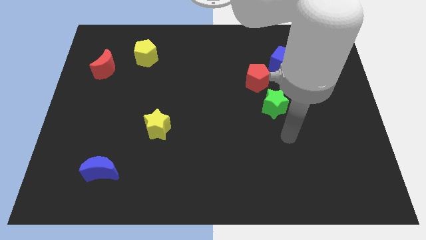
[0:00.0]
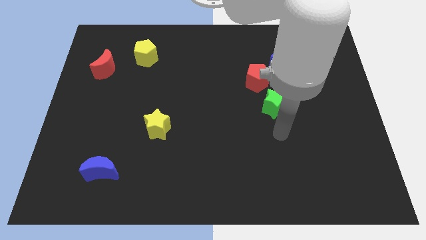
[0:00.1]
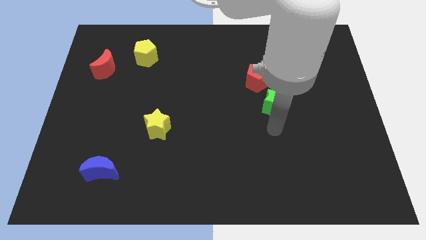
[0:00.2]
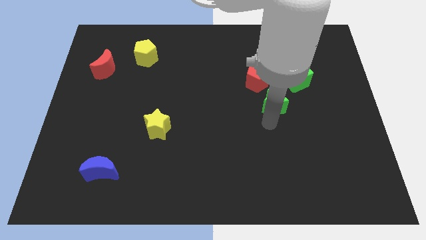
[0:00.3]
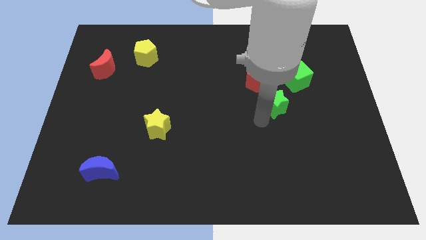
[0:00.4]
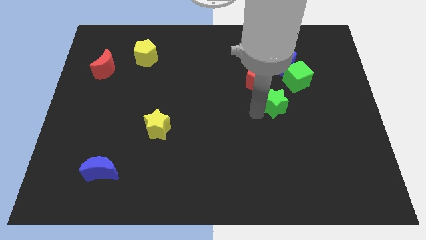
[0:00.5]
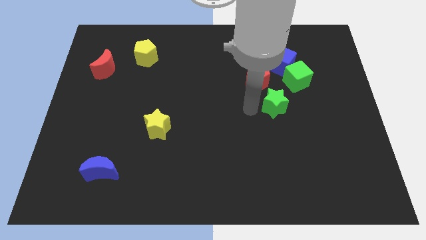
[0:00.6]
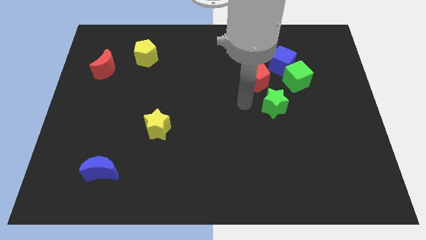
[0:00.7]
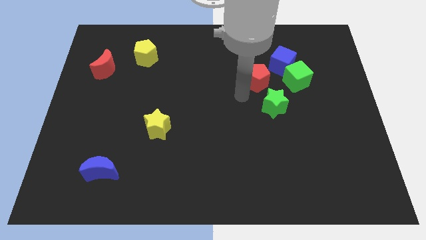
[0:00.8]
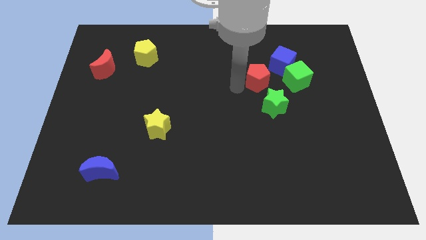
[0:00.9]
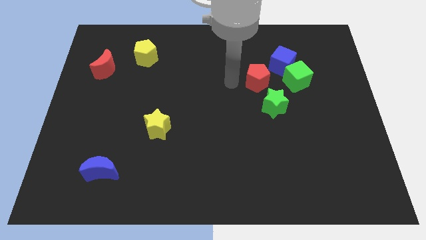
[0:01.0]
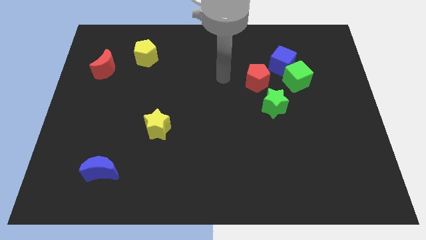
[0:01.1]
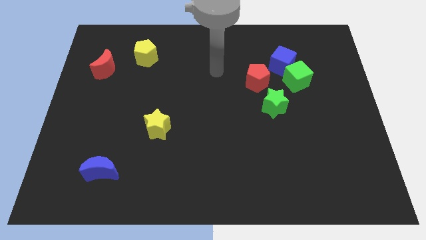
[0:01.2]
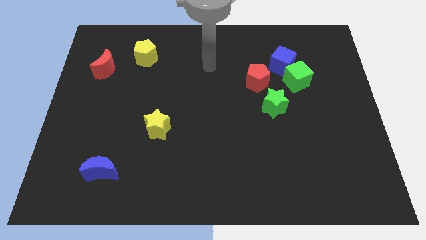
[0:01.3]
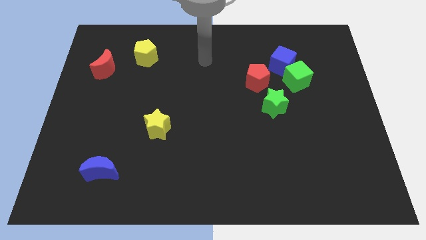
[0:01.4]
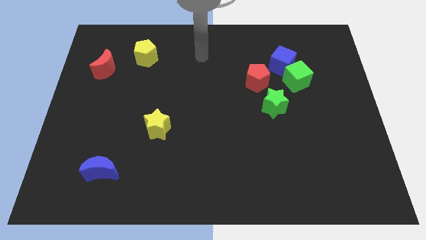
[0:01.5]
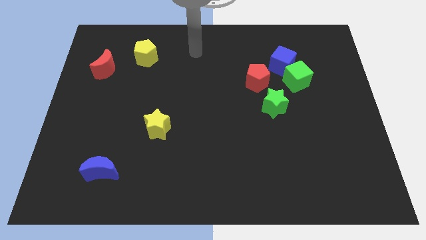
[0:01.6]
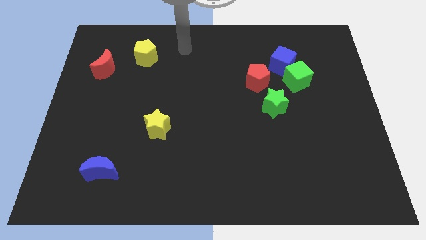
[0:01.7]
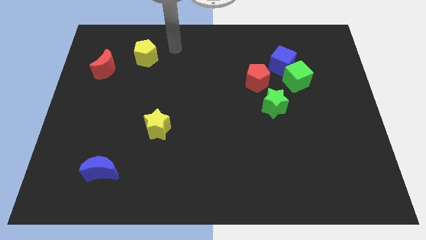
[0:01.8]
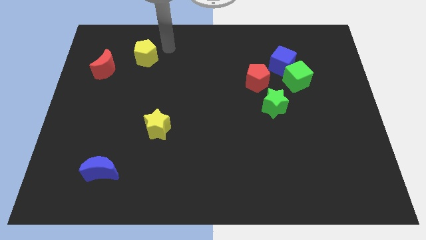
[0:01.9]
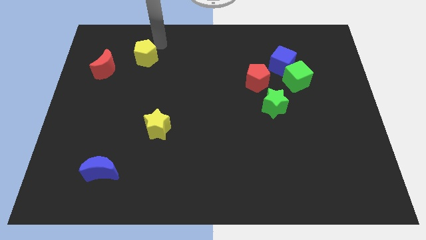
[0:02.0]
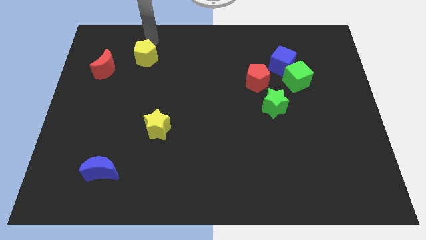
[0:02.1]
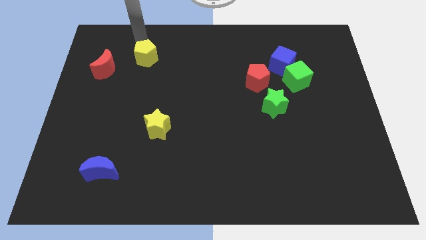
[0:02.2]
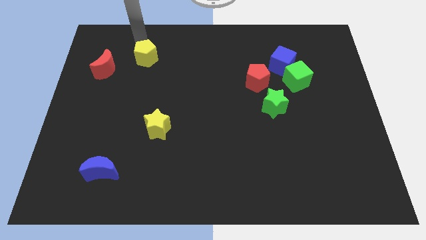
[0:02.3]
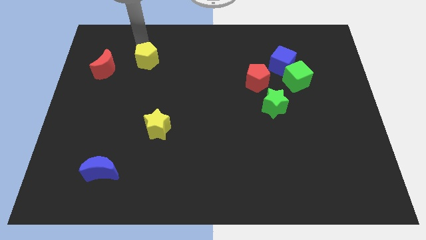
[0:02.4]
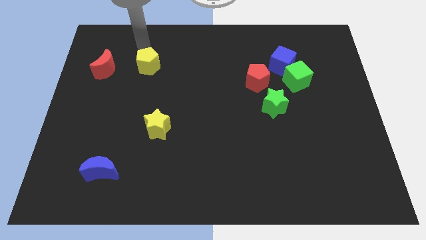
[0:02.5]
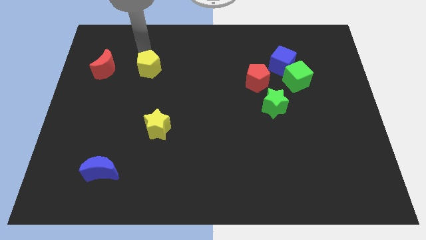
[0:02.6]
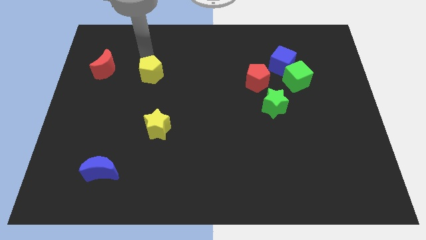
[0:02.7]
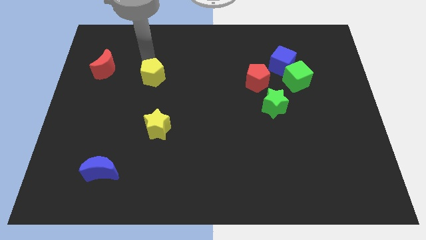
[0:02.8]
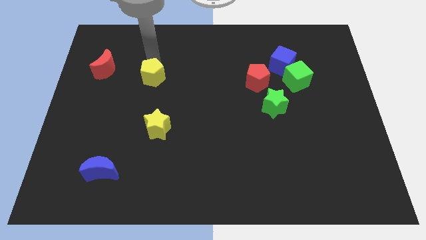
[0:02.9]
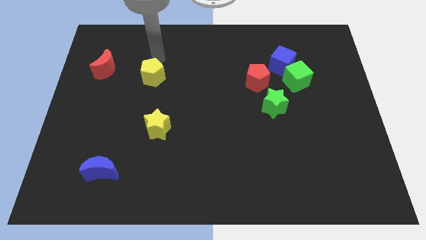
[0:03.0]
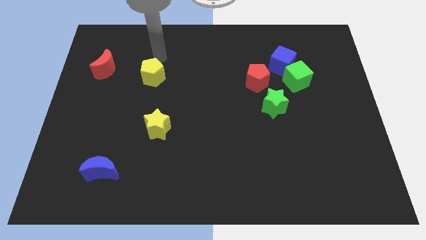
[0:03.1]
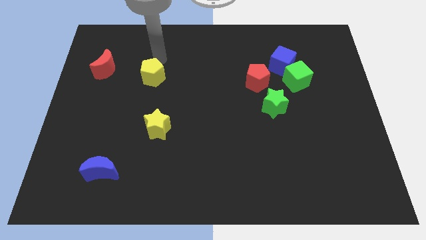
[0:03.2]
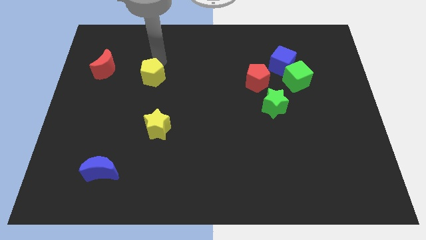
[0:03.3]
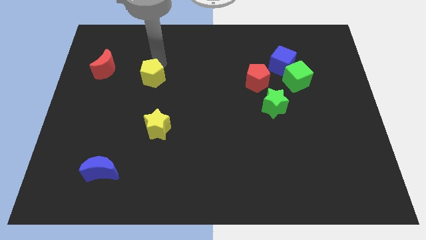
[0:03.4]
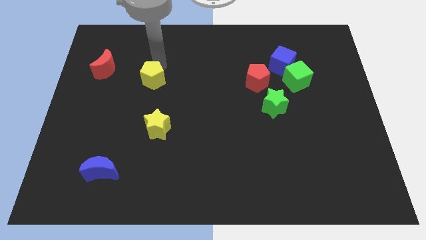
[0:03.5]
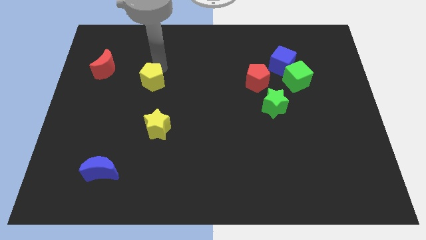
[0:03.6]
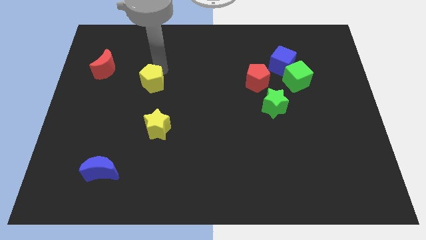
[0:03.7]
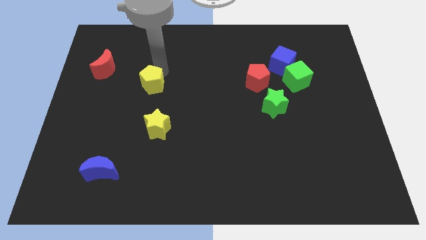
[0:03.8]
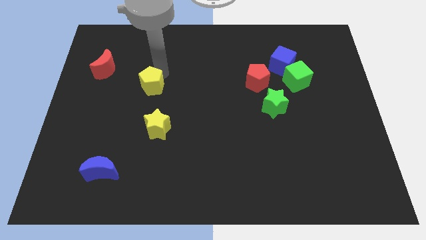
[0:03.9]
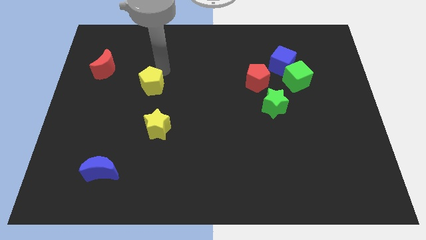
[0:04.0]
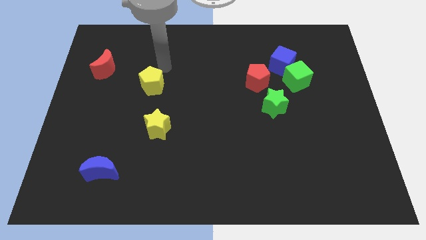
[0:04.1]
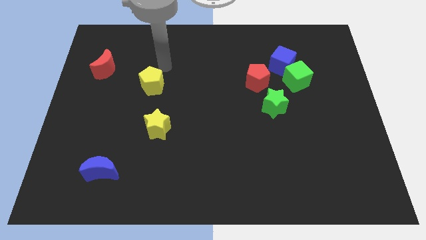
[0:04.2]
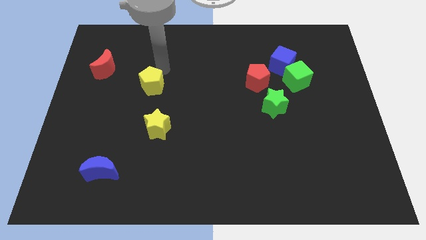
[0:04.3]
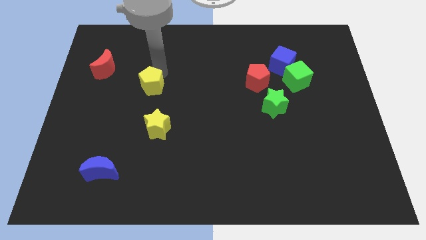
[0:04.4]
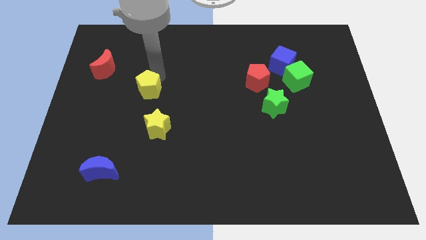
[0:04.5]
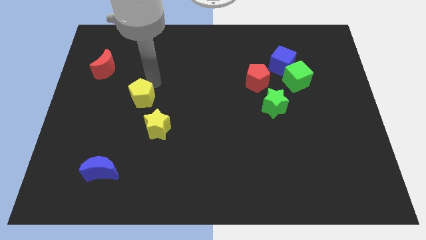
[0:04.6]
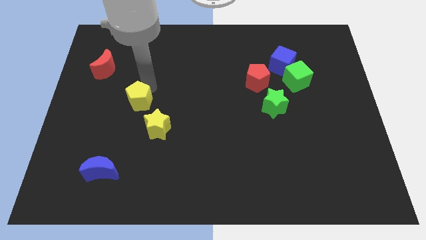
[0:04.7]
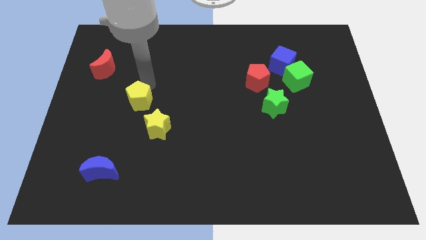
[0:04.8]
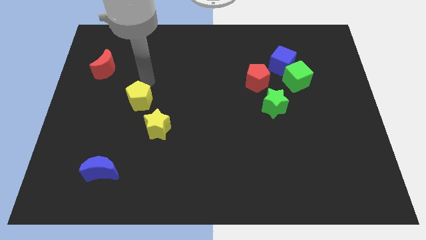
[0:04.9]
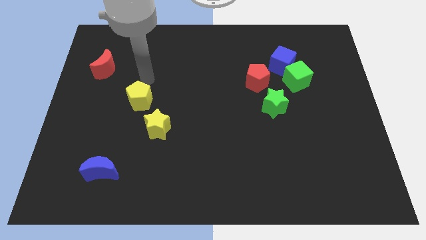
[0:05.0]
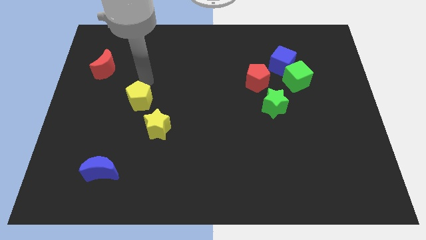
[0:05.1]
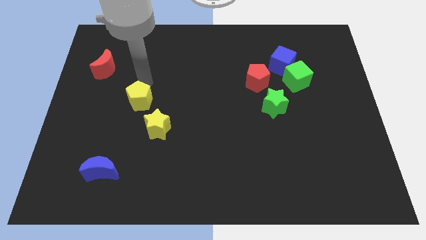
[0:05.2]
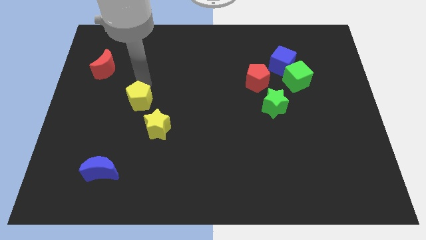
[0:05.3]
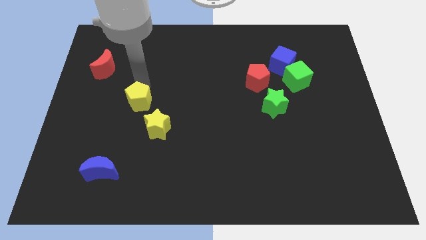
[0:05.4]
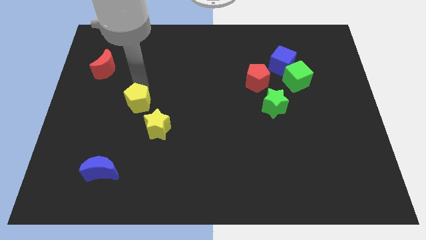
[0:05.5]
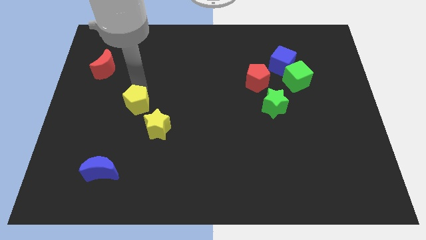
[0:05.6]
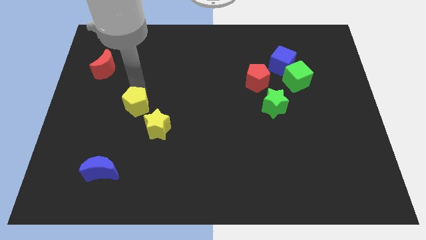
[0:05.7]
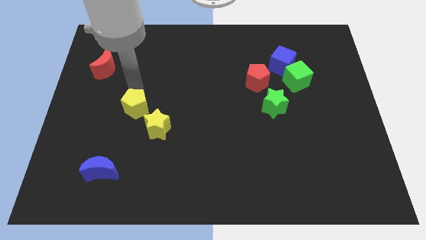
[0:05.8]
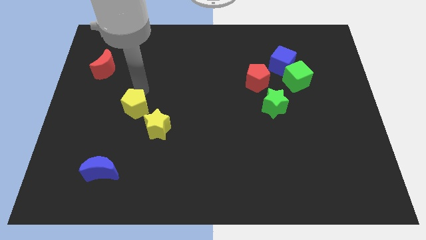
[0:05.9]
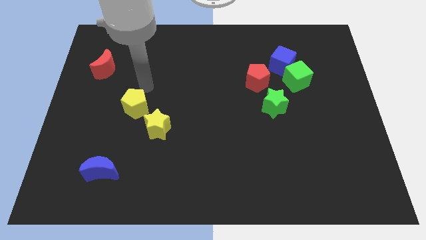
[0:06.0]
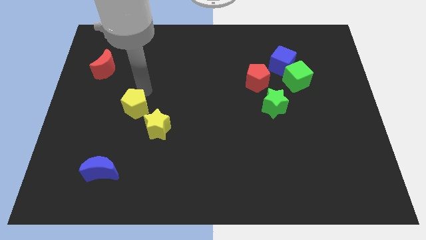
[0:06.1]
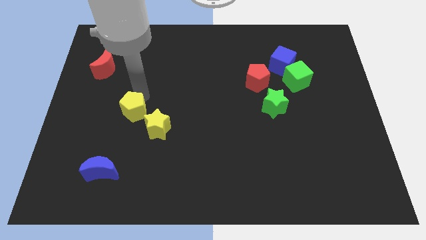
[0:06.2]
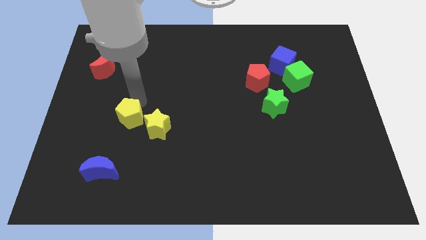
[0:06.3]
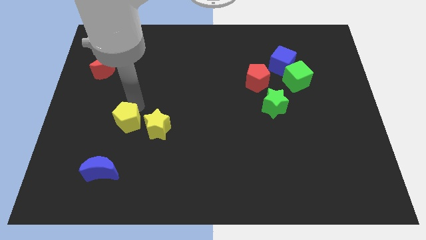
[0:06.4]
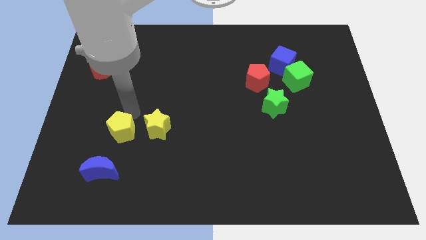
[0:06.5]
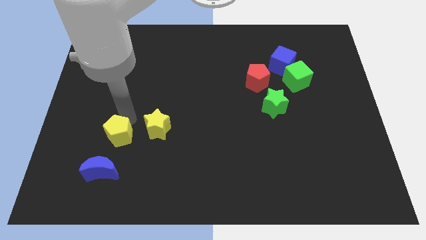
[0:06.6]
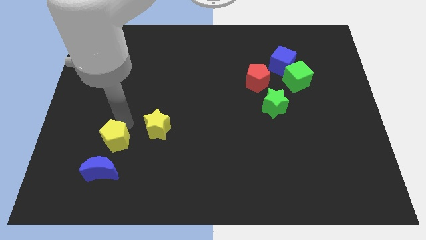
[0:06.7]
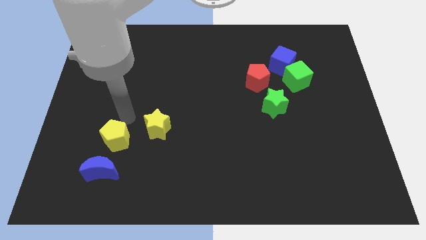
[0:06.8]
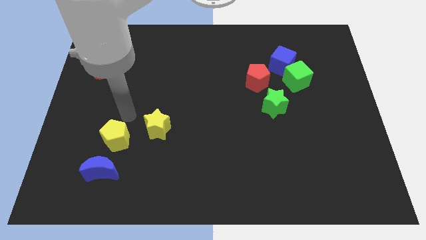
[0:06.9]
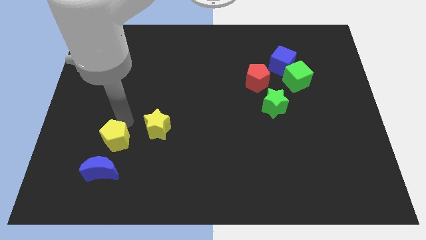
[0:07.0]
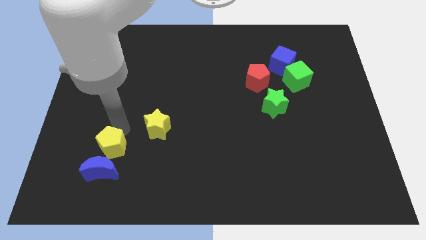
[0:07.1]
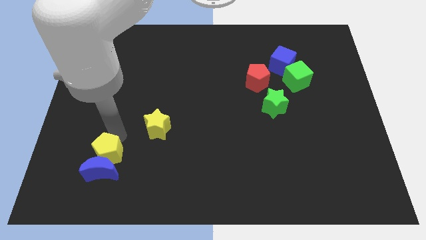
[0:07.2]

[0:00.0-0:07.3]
slide the yellow pentagon towards the blue moon

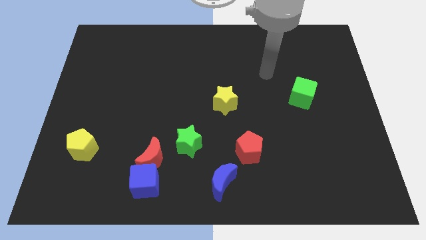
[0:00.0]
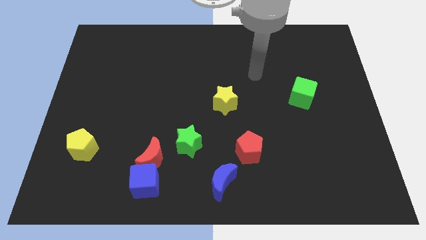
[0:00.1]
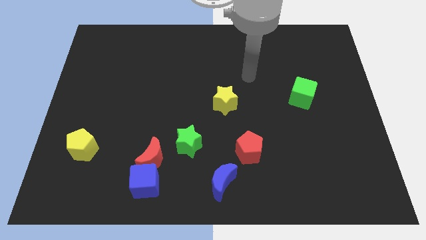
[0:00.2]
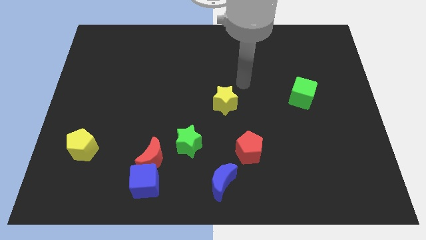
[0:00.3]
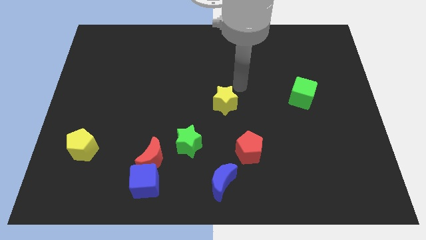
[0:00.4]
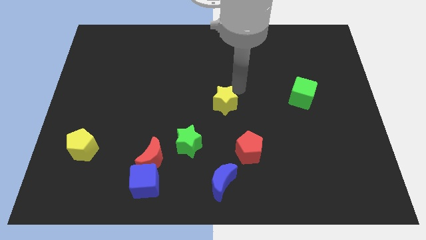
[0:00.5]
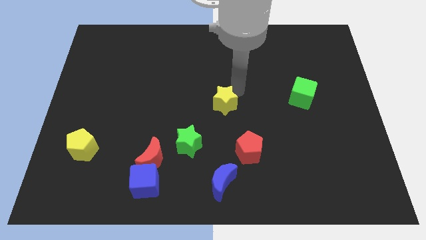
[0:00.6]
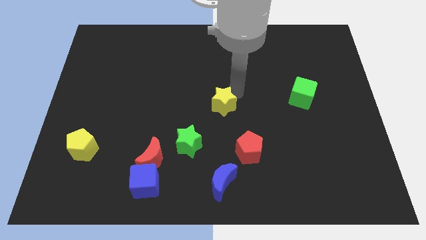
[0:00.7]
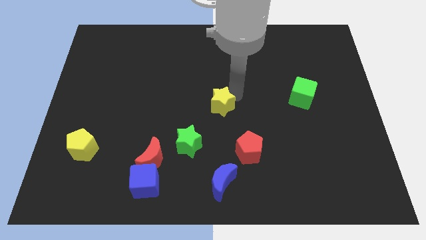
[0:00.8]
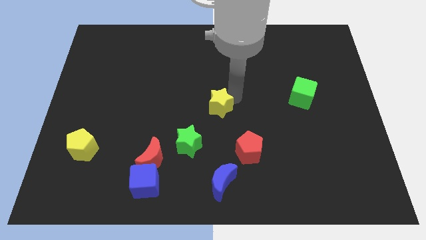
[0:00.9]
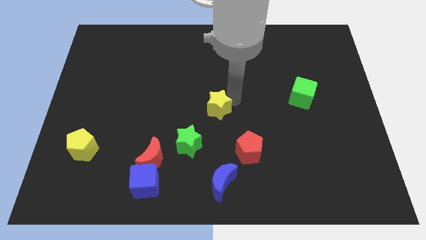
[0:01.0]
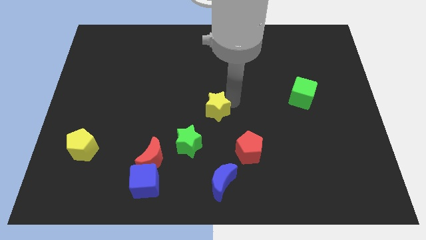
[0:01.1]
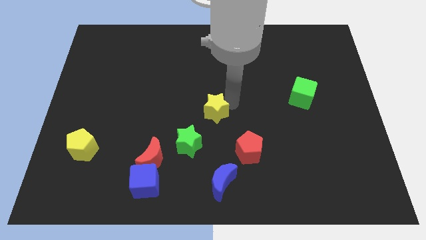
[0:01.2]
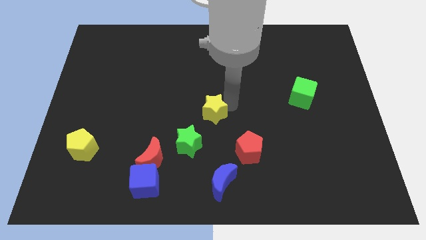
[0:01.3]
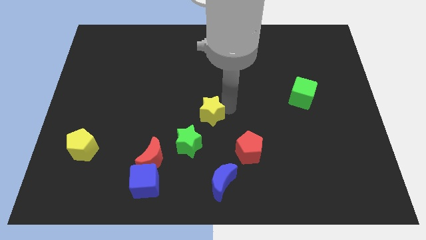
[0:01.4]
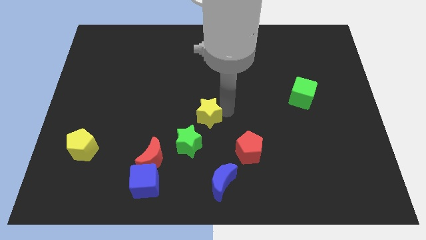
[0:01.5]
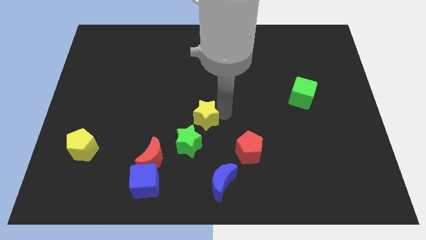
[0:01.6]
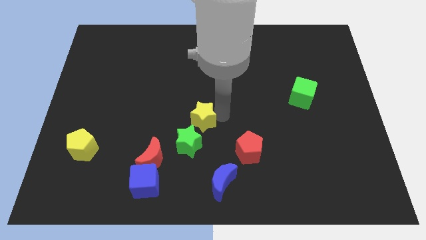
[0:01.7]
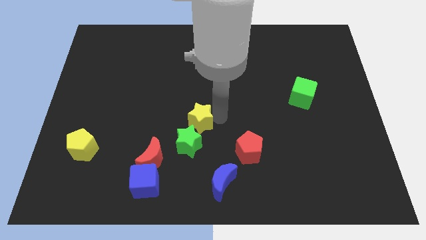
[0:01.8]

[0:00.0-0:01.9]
slide the yellow star close to the green star
